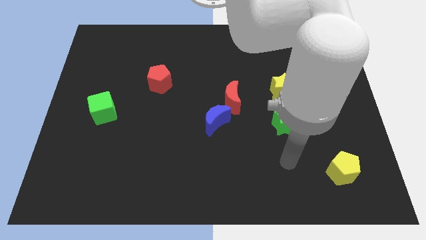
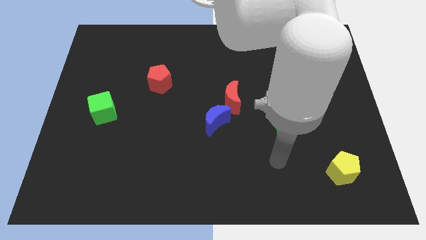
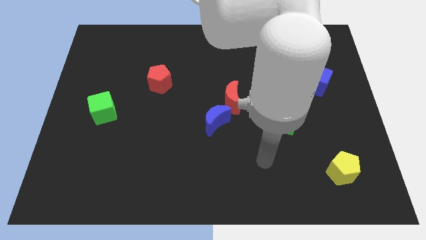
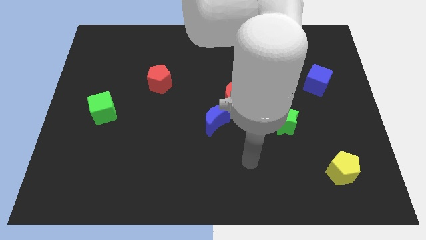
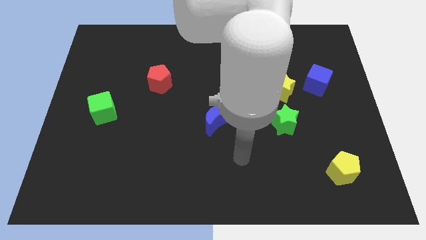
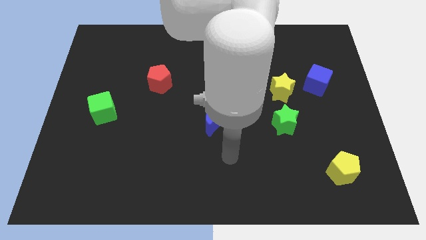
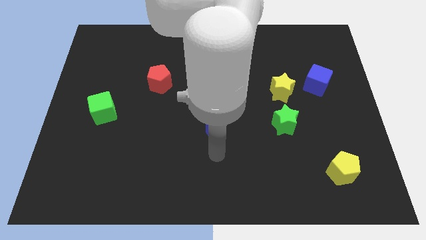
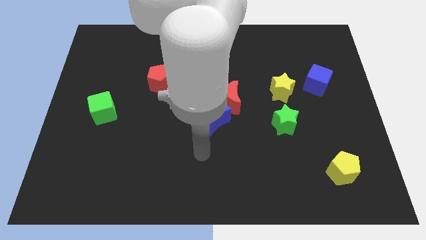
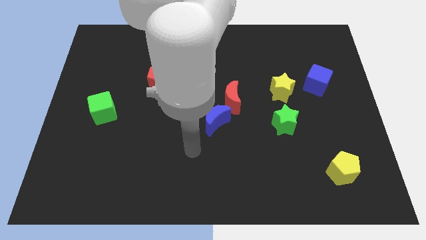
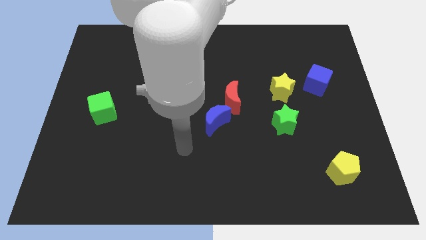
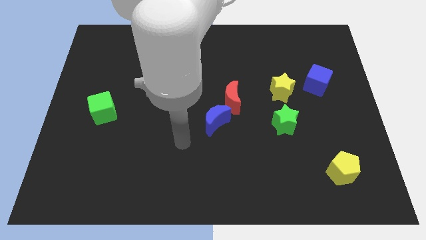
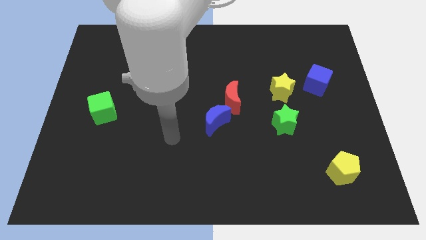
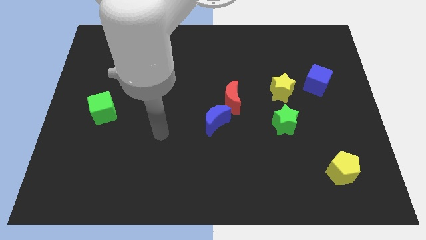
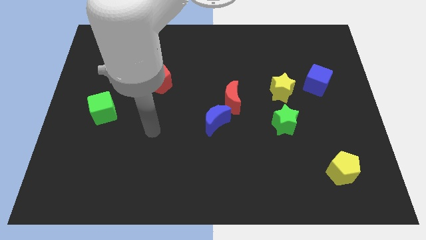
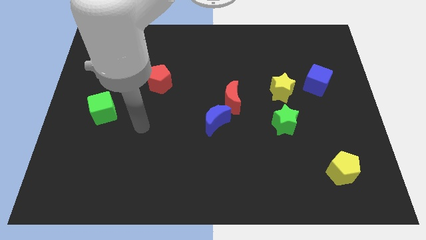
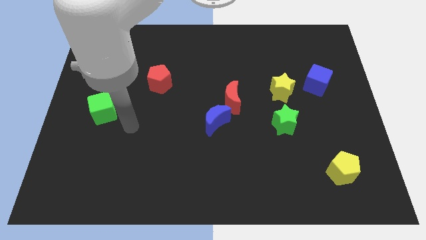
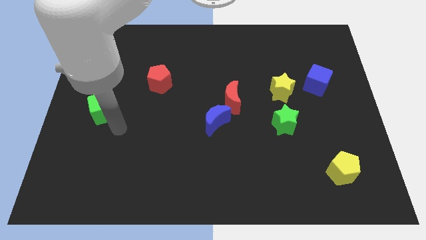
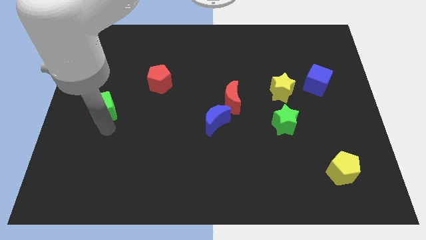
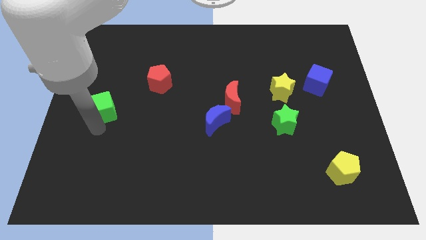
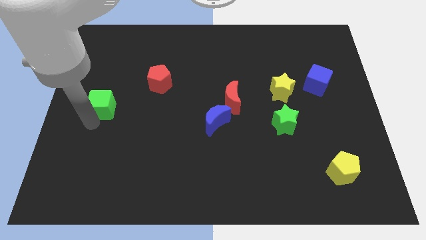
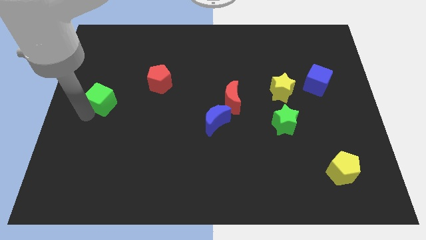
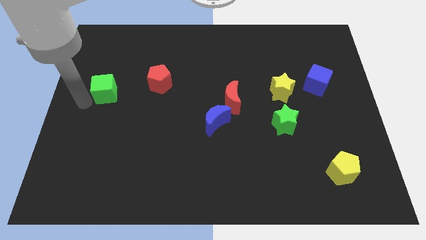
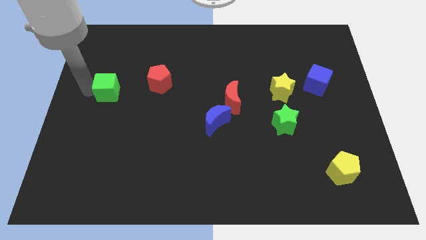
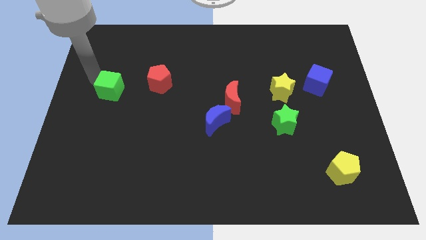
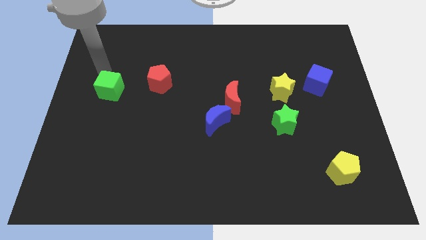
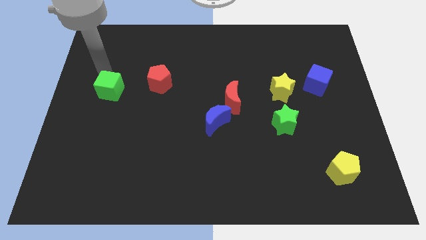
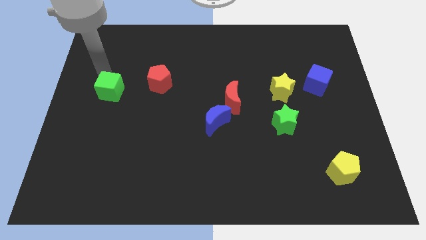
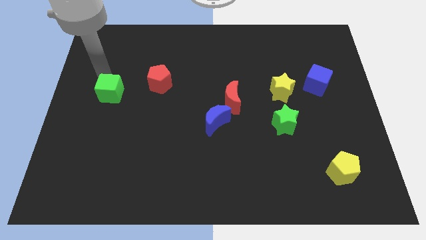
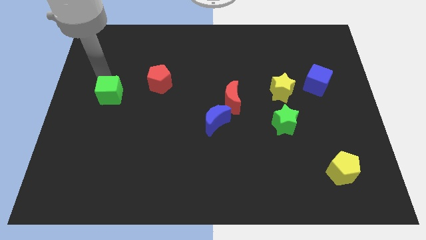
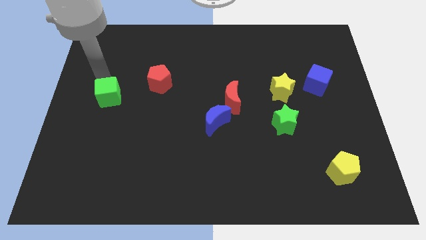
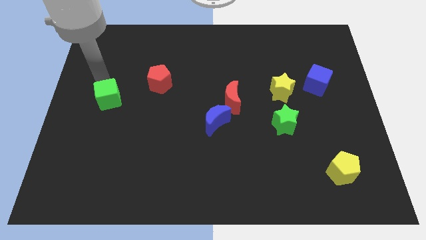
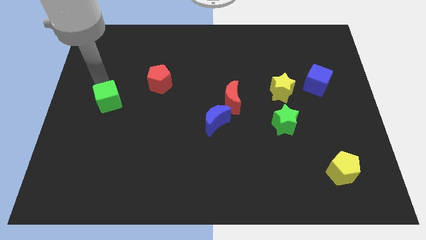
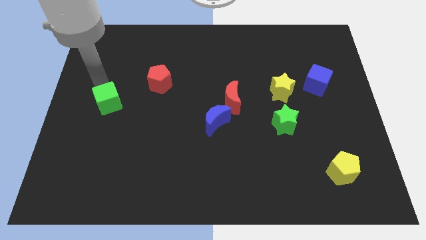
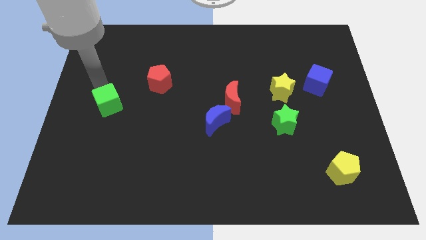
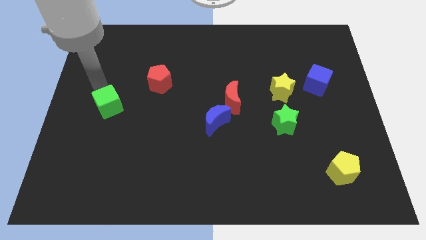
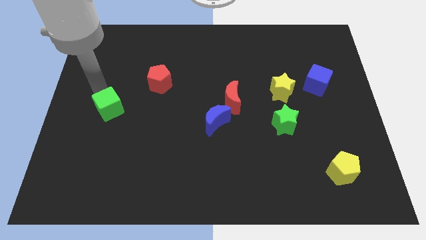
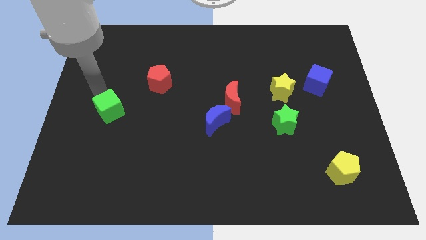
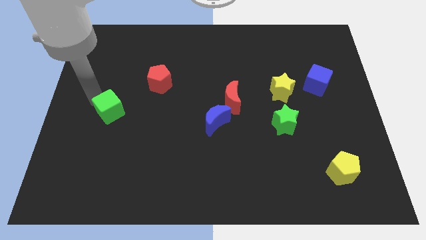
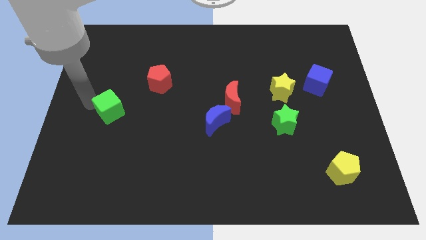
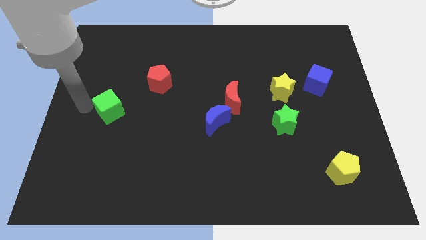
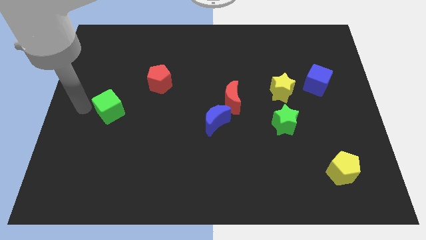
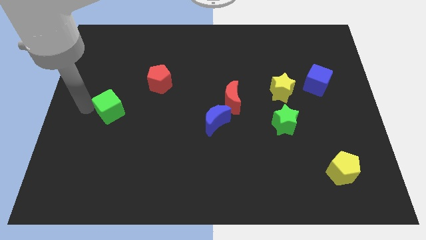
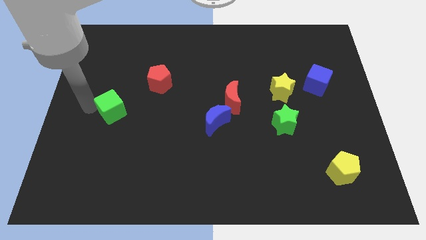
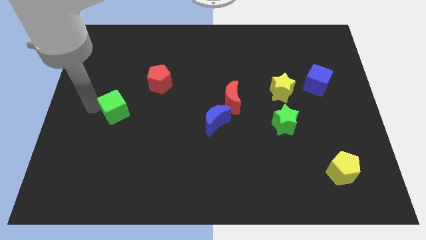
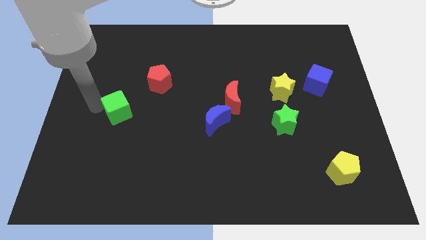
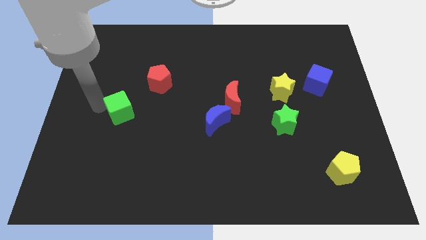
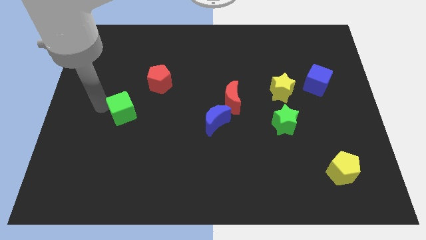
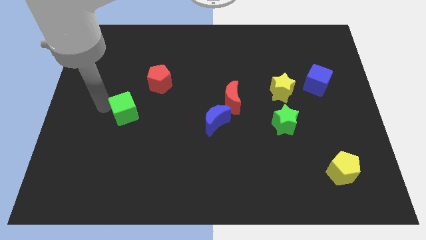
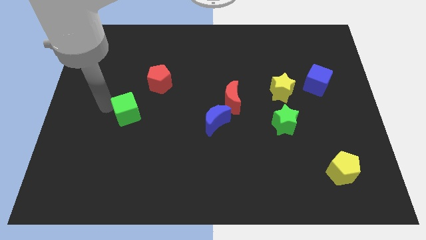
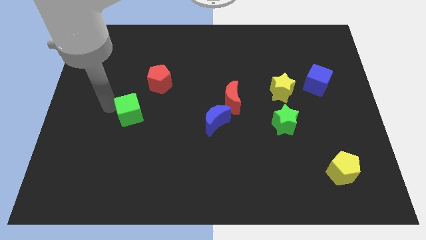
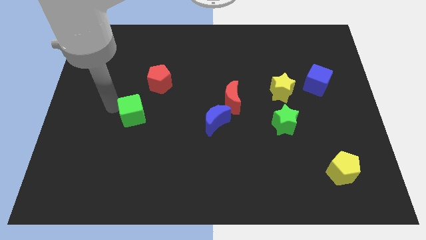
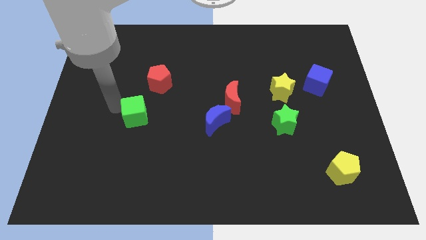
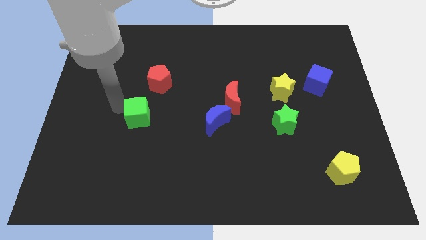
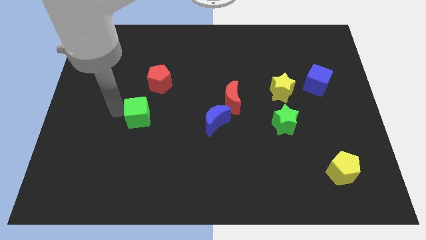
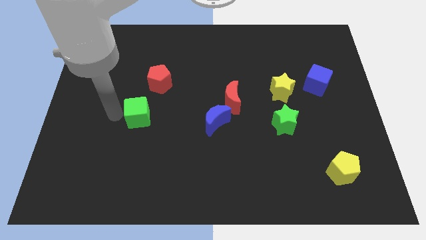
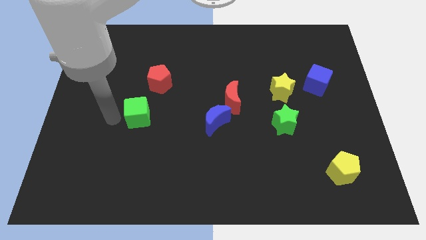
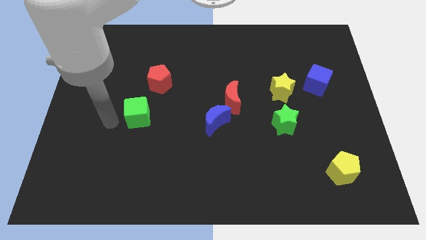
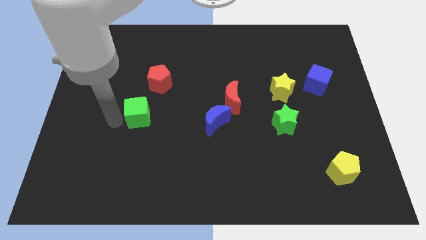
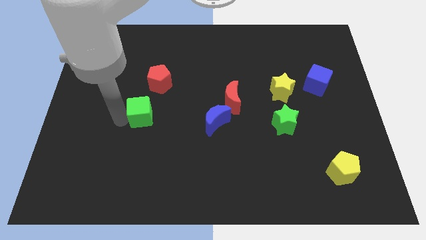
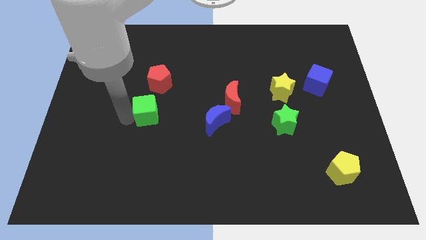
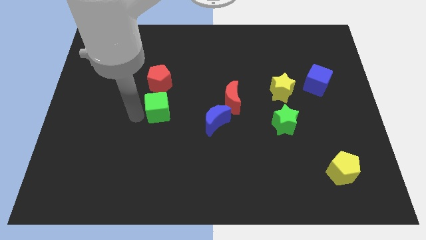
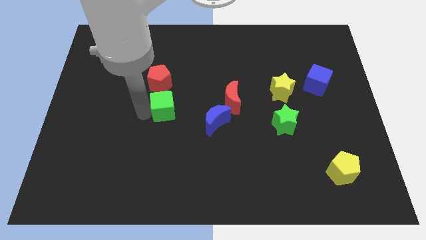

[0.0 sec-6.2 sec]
slide the green cube to the center

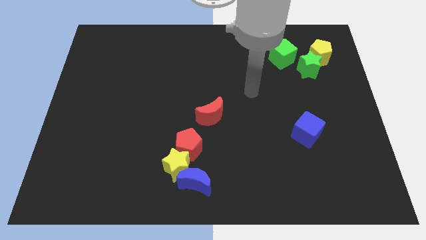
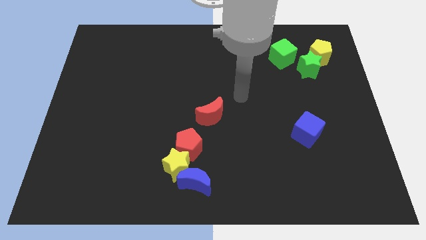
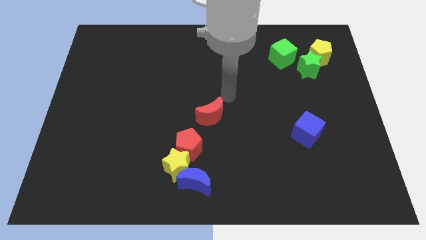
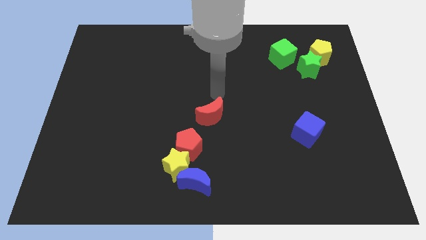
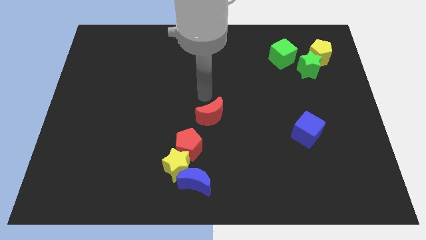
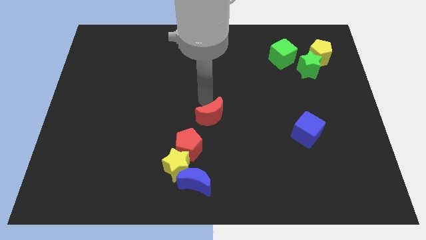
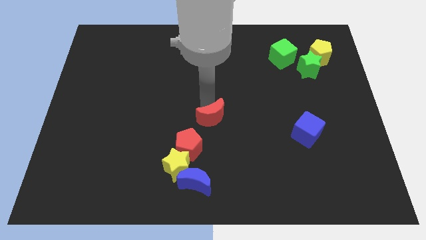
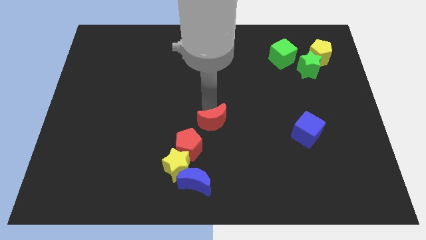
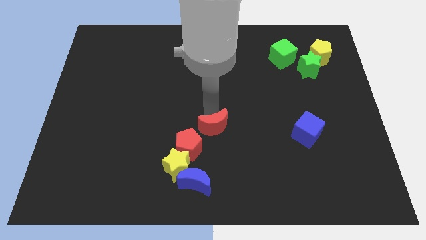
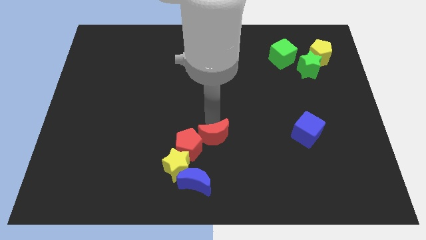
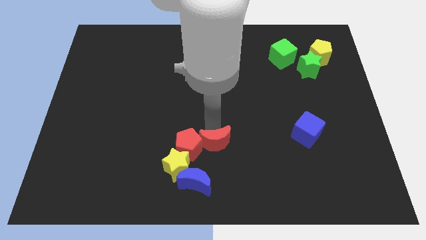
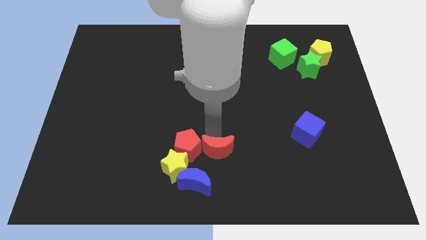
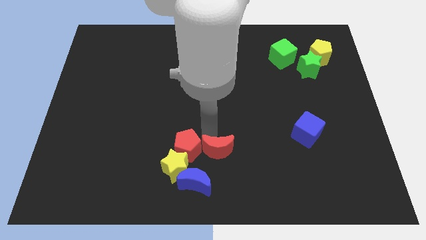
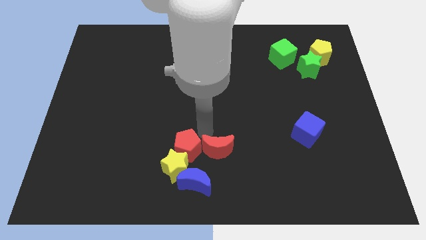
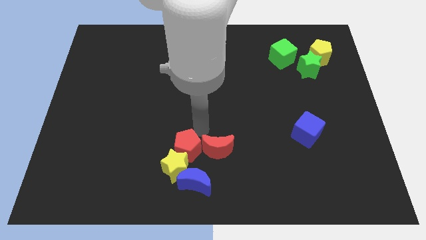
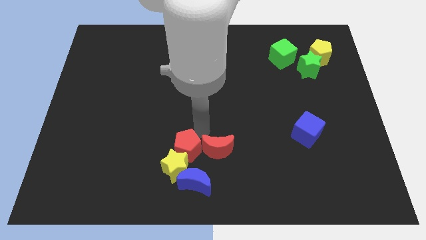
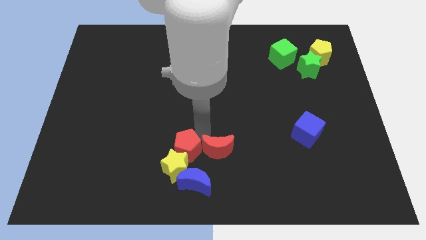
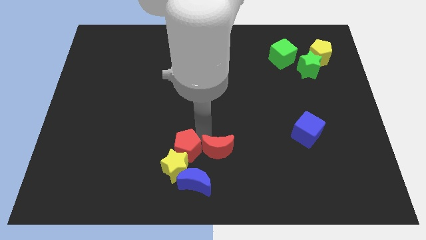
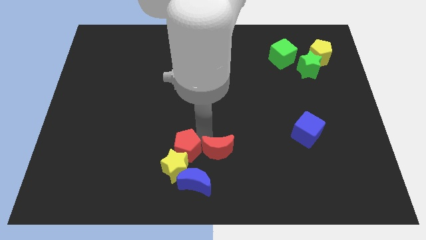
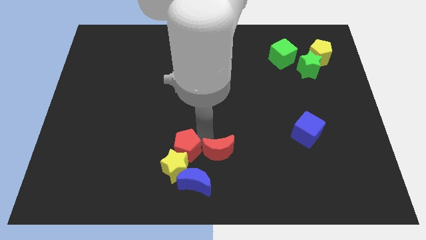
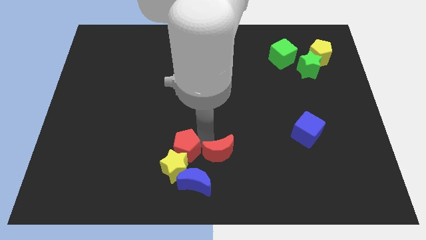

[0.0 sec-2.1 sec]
push the red moon to the bottom
